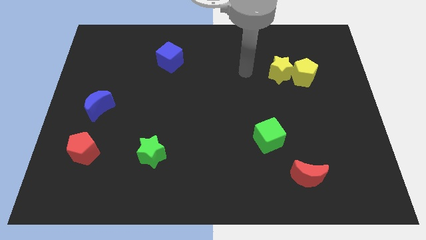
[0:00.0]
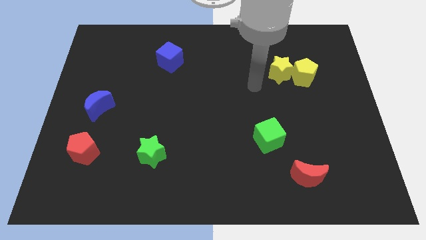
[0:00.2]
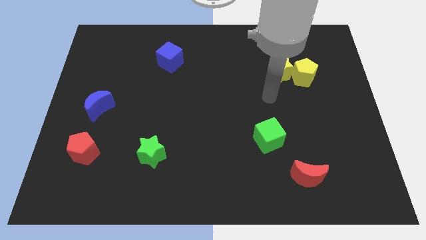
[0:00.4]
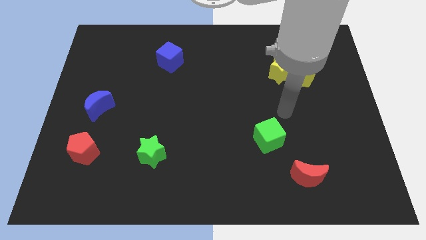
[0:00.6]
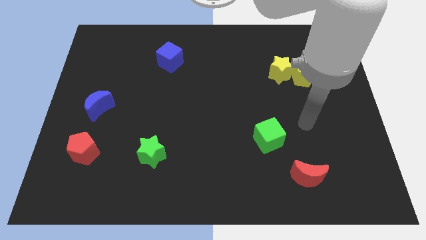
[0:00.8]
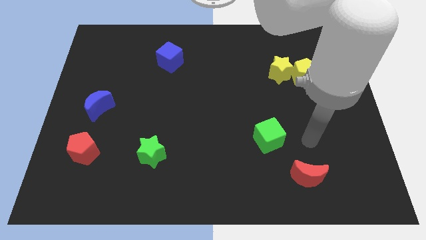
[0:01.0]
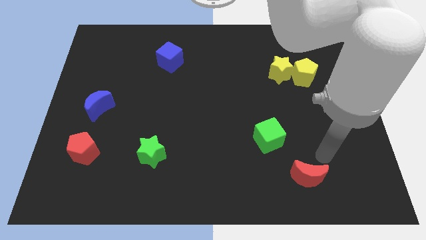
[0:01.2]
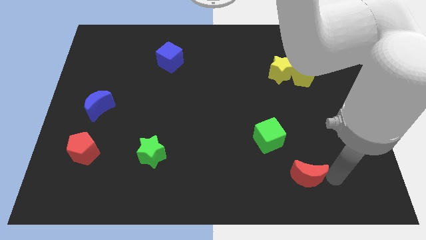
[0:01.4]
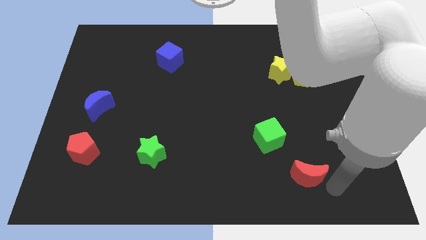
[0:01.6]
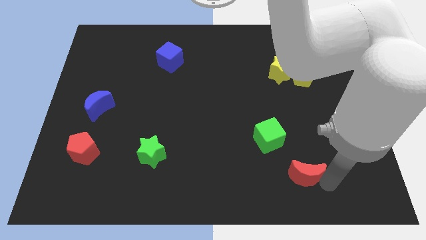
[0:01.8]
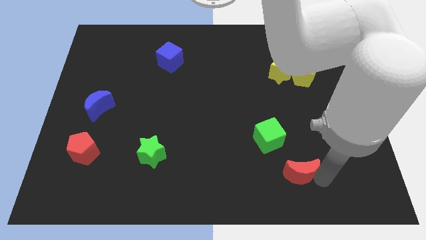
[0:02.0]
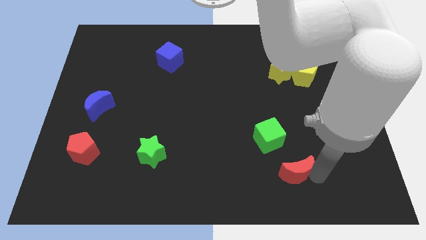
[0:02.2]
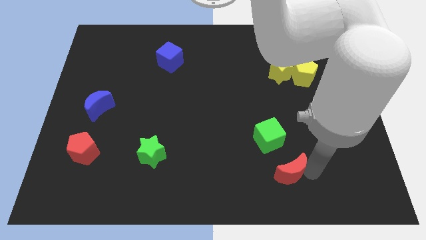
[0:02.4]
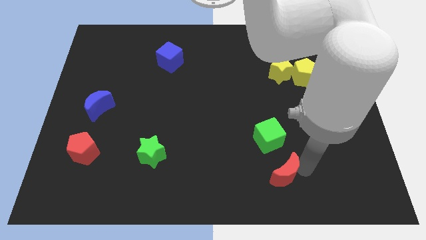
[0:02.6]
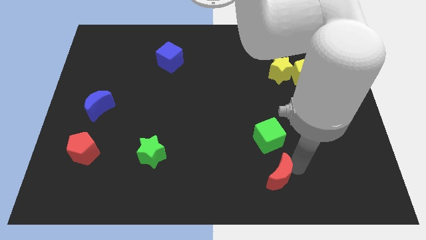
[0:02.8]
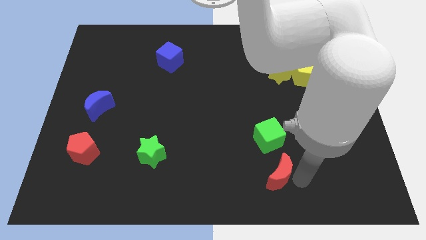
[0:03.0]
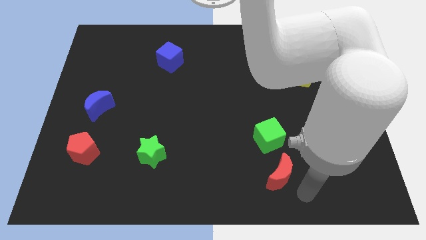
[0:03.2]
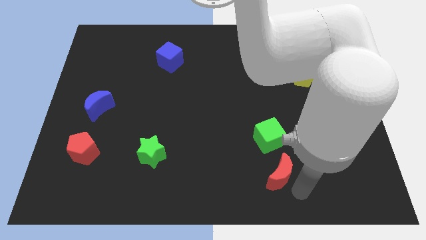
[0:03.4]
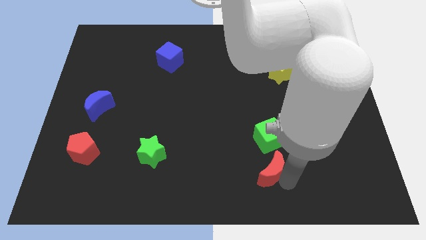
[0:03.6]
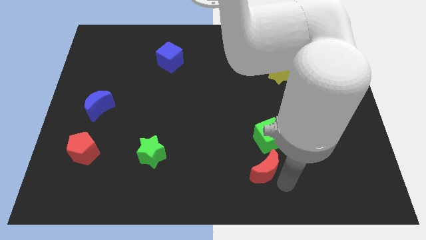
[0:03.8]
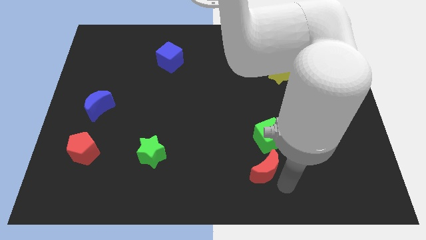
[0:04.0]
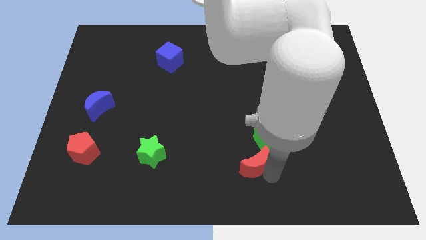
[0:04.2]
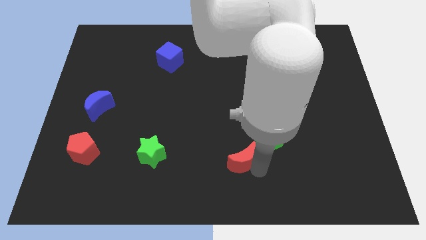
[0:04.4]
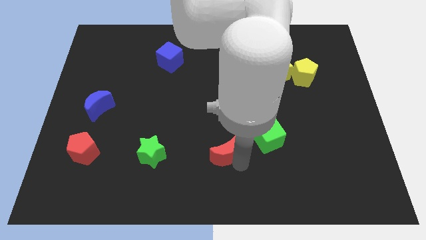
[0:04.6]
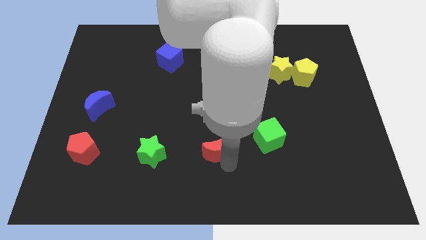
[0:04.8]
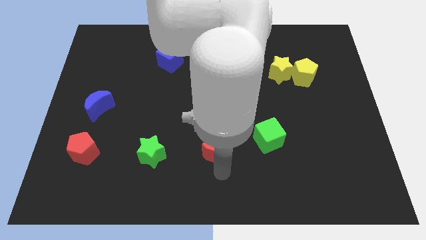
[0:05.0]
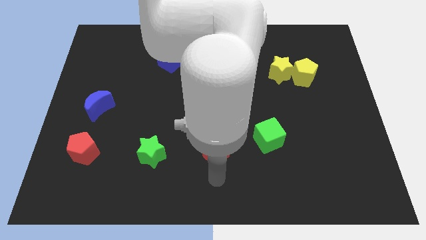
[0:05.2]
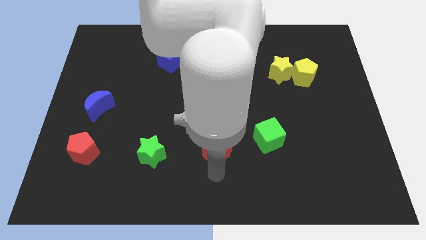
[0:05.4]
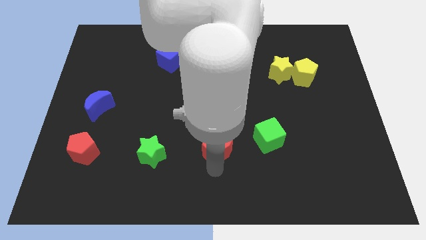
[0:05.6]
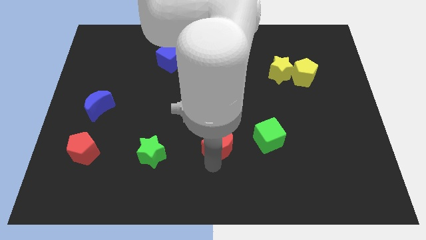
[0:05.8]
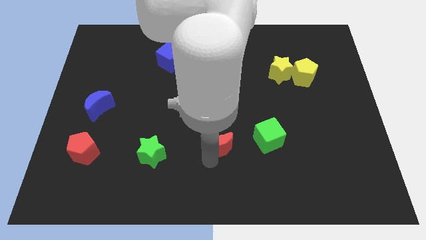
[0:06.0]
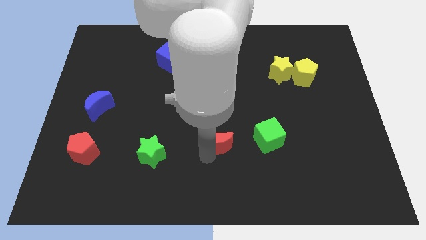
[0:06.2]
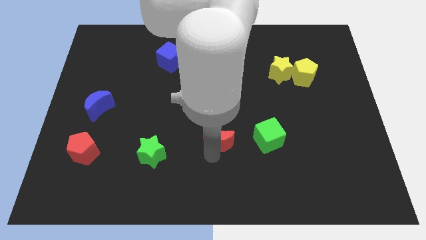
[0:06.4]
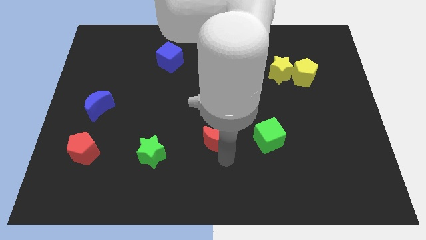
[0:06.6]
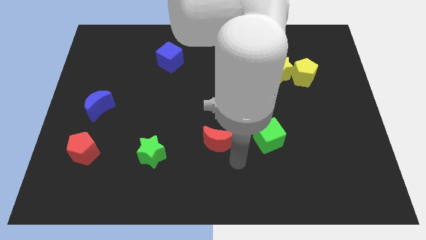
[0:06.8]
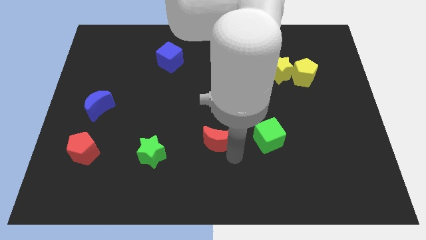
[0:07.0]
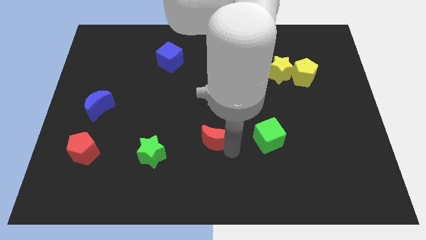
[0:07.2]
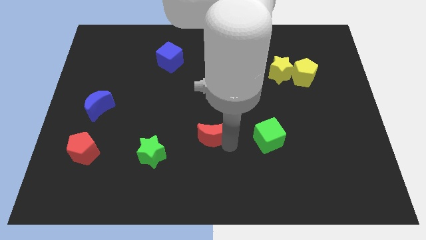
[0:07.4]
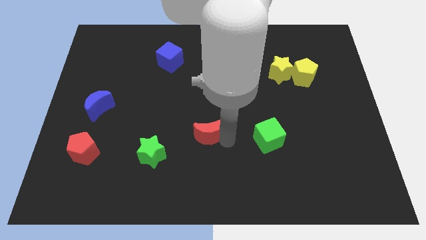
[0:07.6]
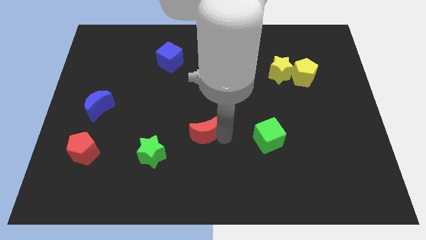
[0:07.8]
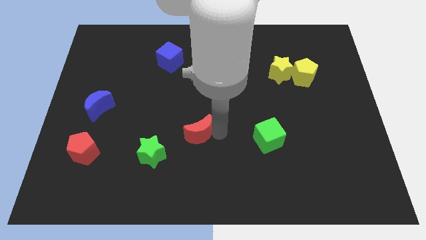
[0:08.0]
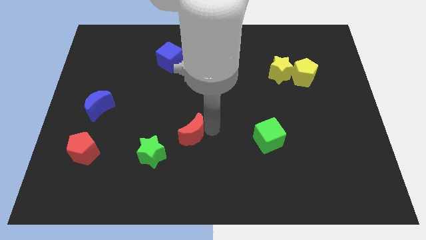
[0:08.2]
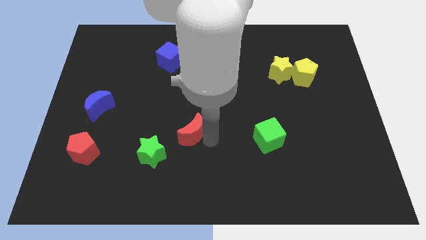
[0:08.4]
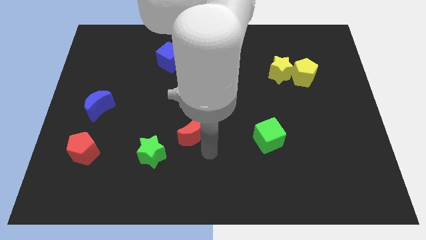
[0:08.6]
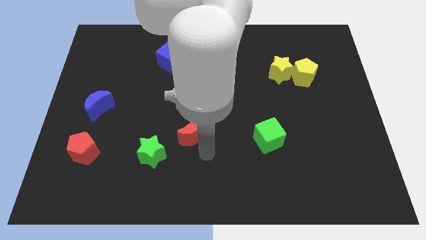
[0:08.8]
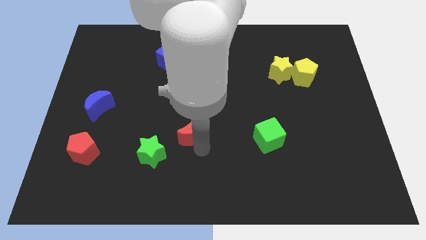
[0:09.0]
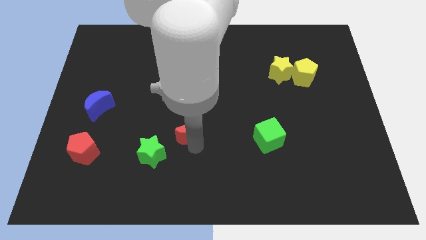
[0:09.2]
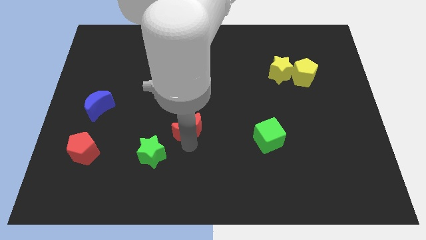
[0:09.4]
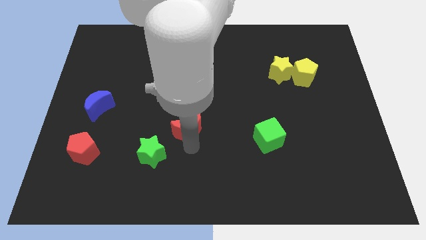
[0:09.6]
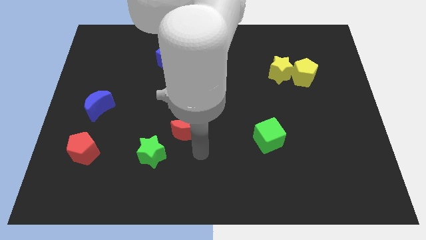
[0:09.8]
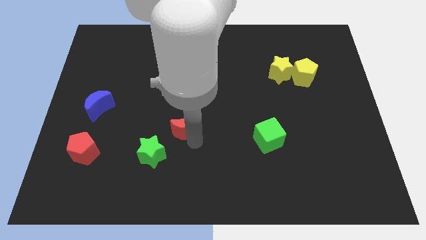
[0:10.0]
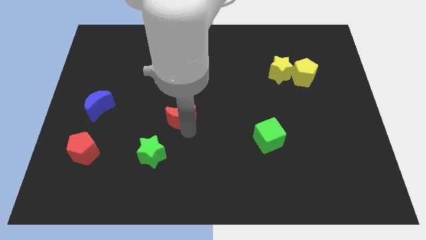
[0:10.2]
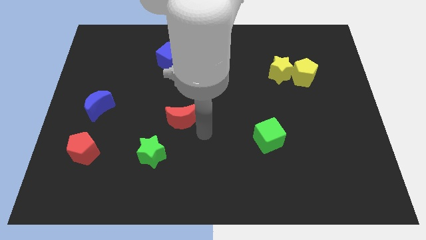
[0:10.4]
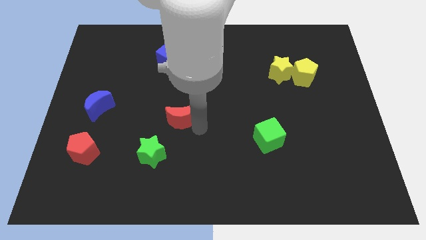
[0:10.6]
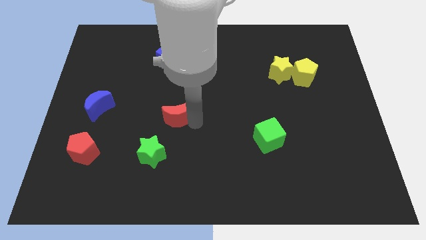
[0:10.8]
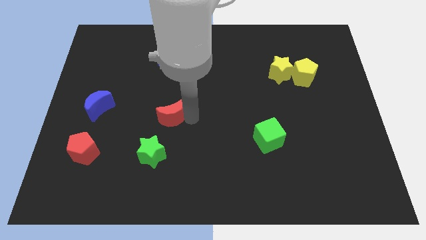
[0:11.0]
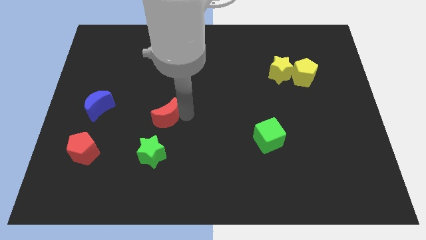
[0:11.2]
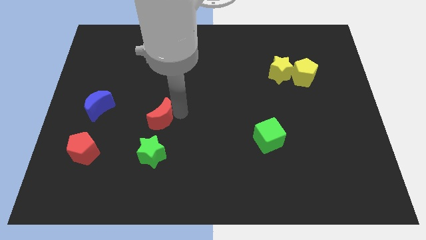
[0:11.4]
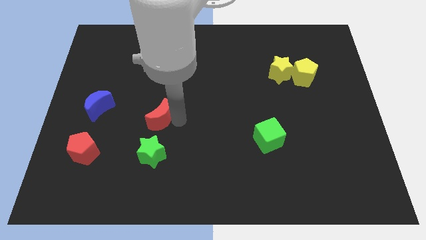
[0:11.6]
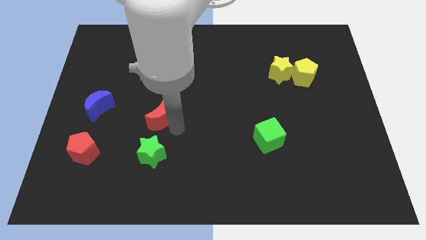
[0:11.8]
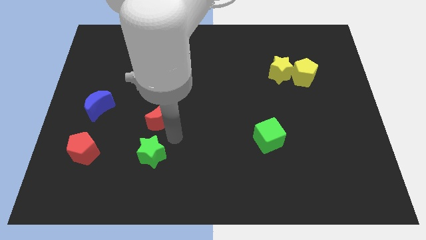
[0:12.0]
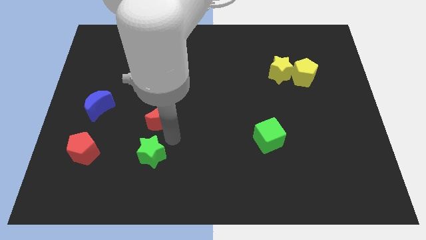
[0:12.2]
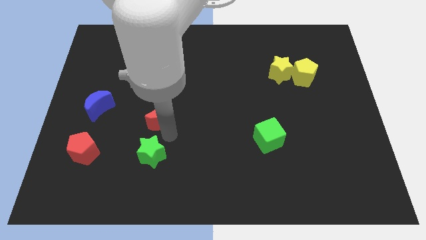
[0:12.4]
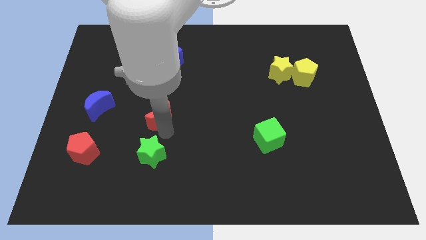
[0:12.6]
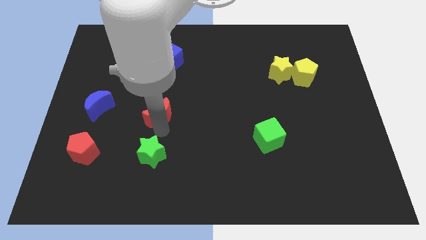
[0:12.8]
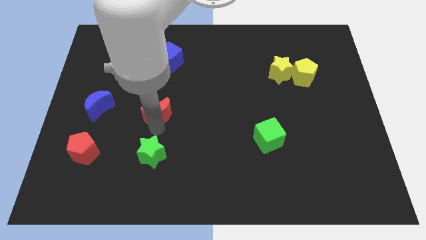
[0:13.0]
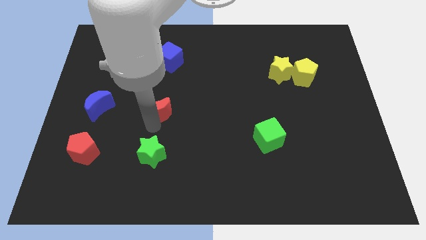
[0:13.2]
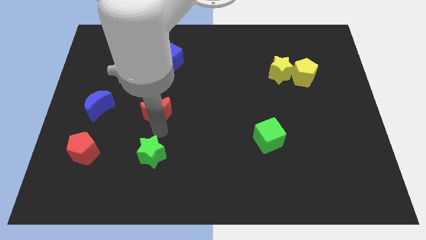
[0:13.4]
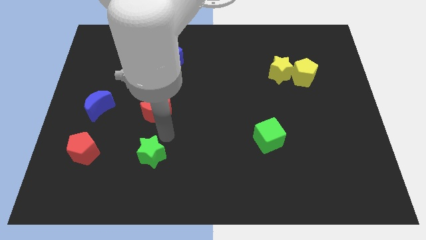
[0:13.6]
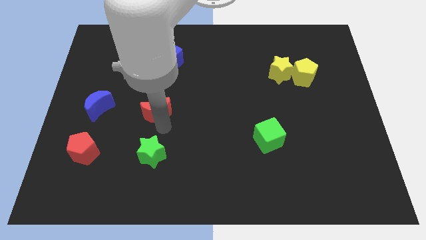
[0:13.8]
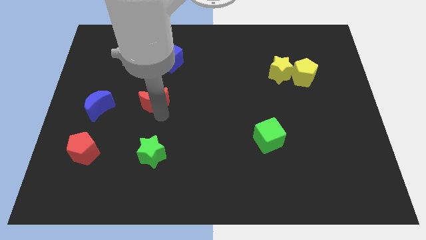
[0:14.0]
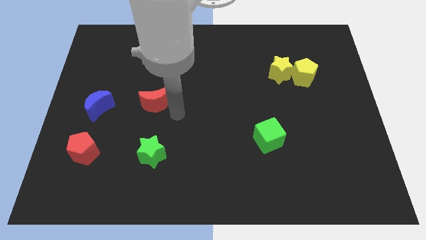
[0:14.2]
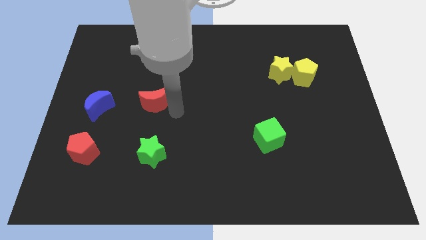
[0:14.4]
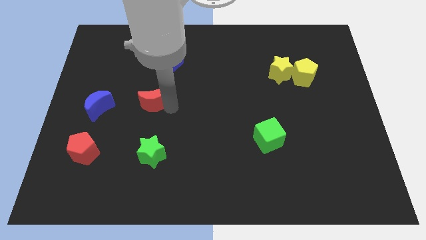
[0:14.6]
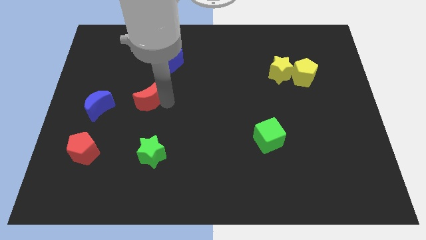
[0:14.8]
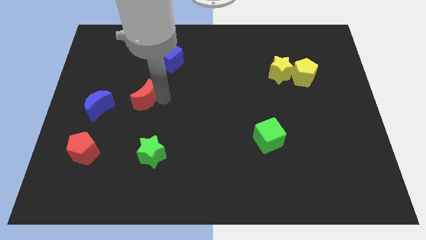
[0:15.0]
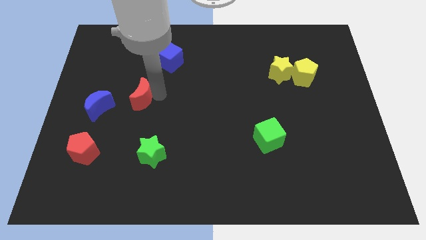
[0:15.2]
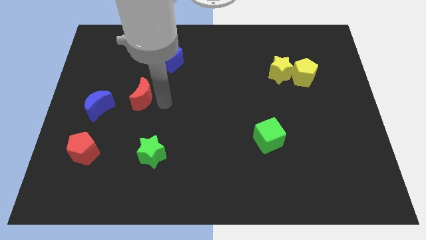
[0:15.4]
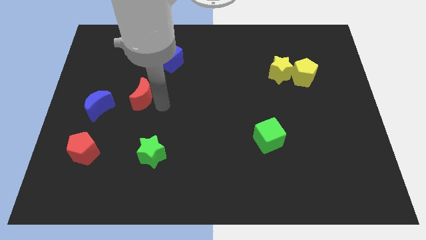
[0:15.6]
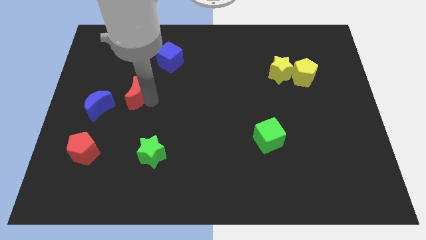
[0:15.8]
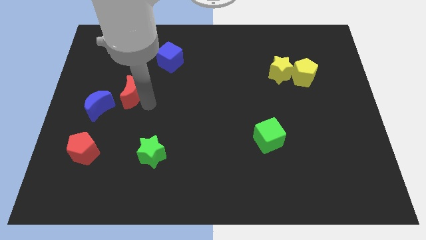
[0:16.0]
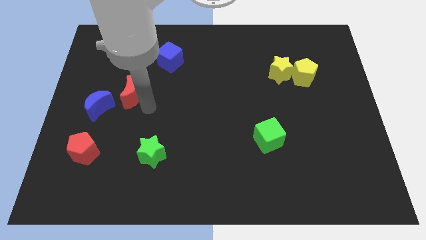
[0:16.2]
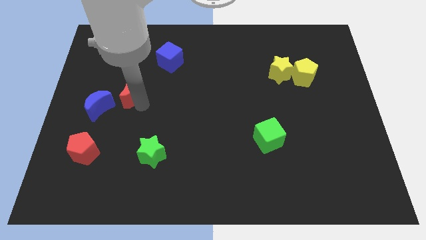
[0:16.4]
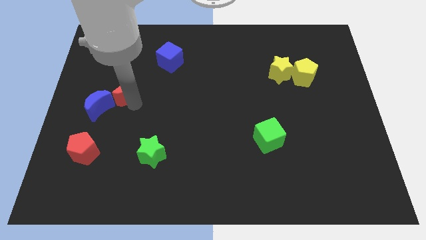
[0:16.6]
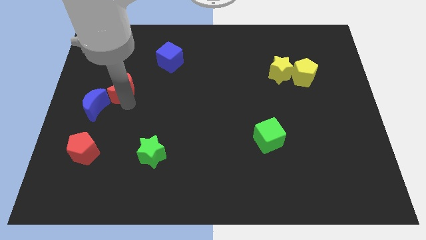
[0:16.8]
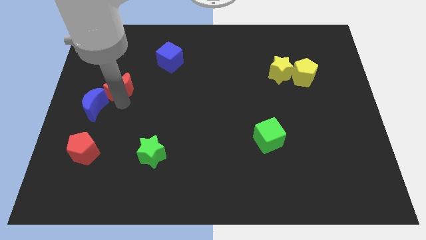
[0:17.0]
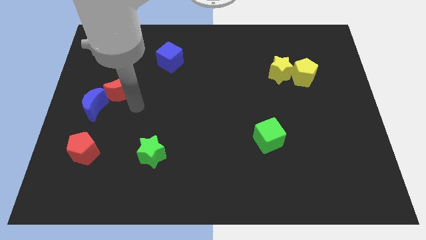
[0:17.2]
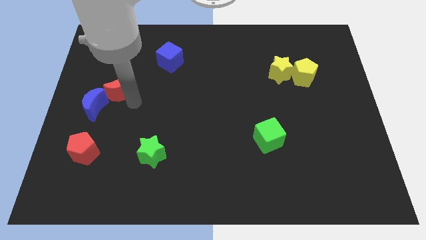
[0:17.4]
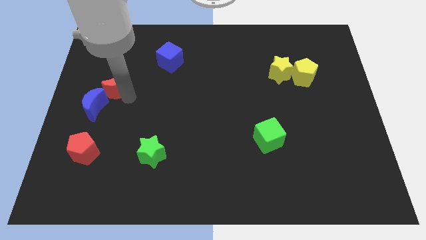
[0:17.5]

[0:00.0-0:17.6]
push the red moon to the top of the blue moon
